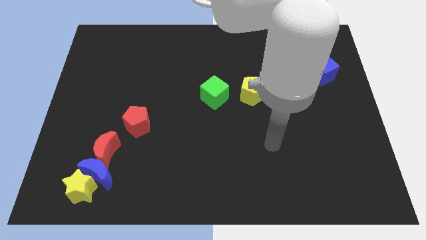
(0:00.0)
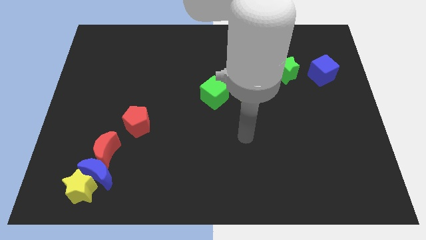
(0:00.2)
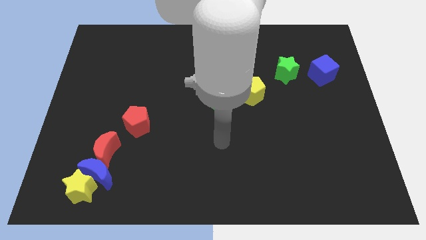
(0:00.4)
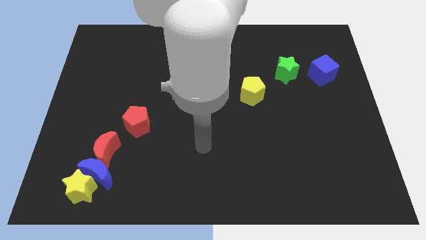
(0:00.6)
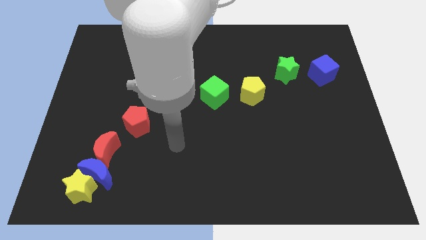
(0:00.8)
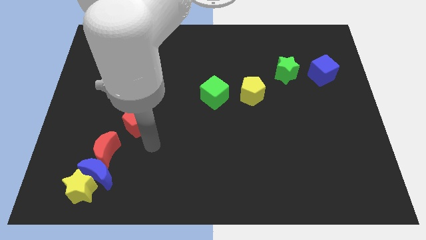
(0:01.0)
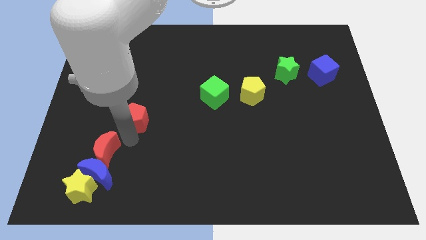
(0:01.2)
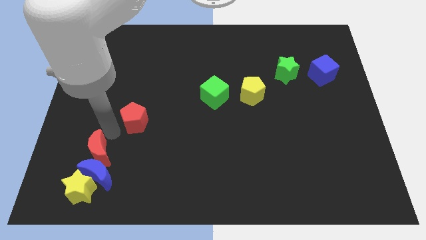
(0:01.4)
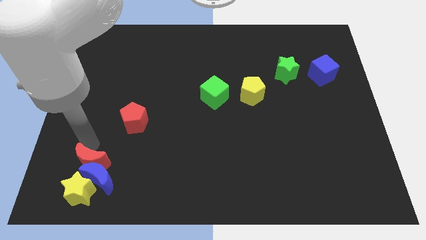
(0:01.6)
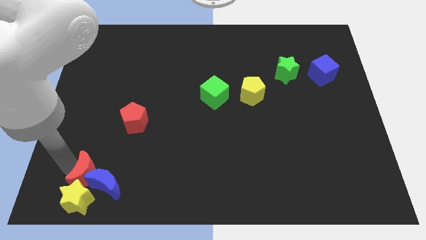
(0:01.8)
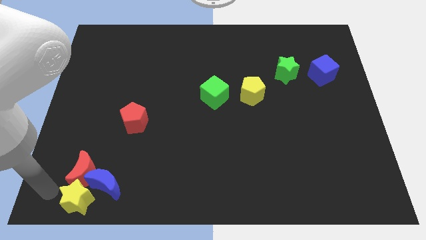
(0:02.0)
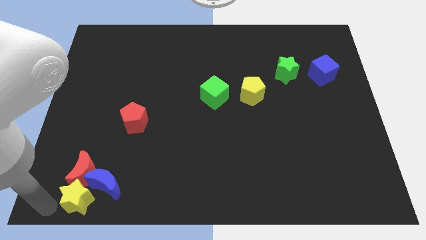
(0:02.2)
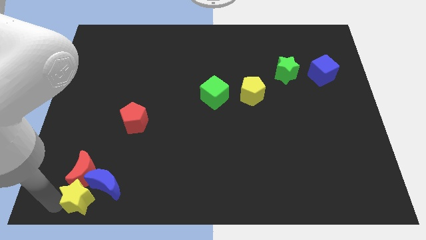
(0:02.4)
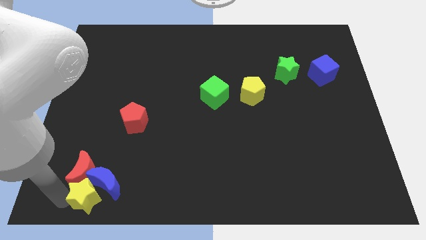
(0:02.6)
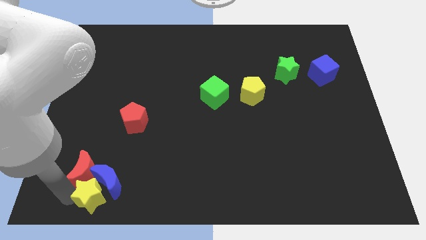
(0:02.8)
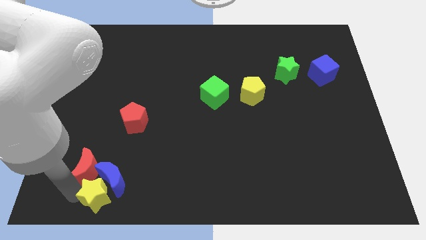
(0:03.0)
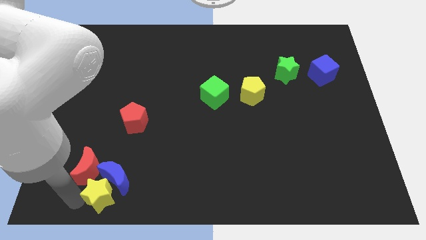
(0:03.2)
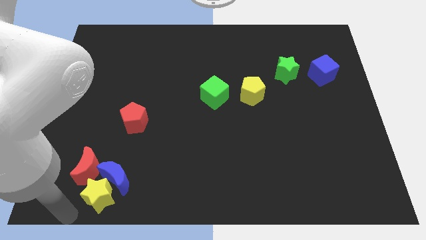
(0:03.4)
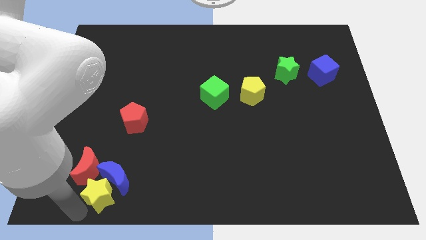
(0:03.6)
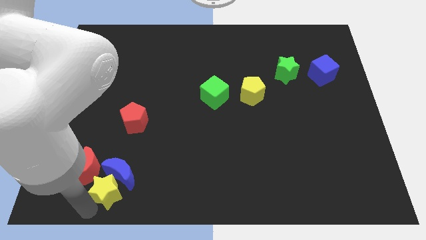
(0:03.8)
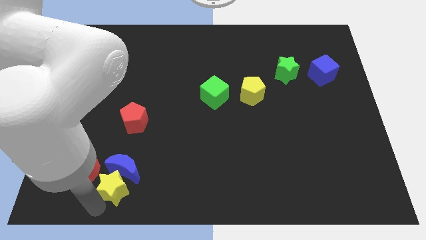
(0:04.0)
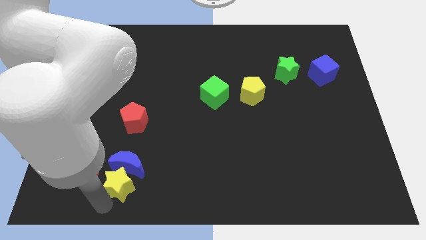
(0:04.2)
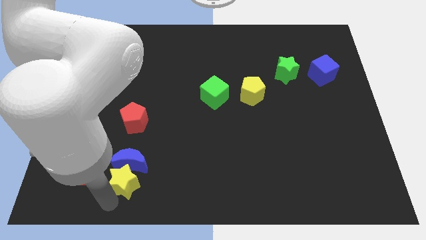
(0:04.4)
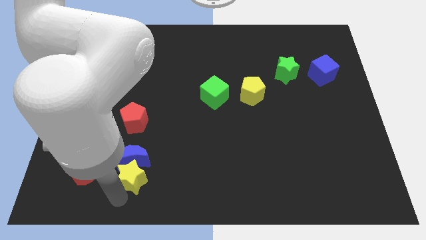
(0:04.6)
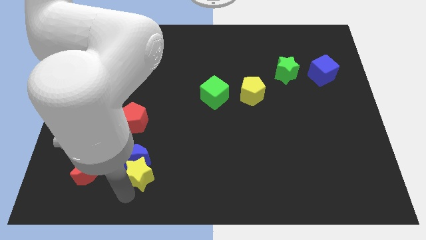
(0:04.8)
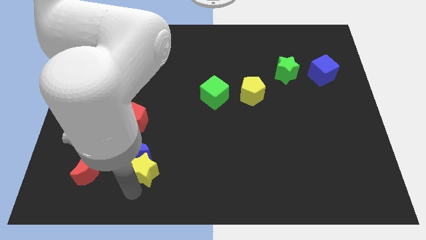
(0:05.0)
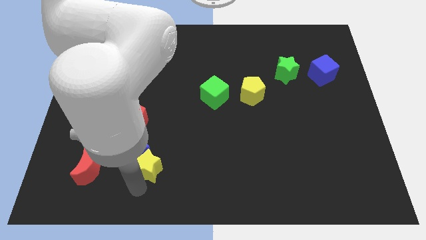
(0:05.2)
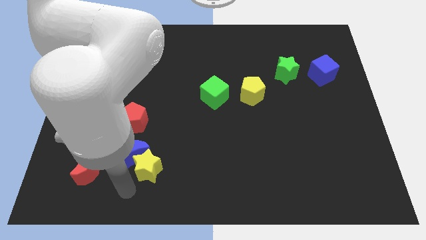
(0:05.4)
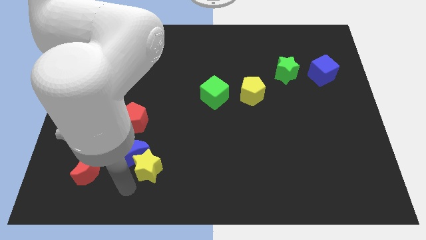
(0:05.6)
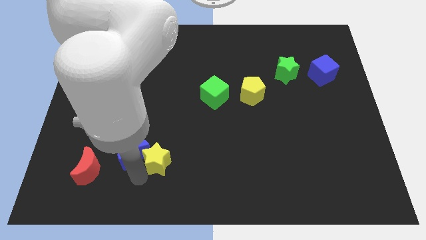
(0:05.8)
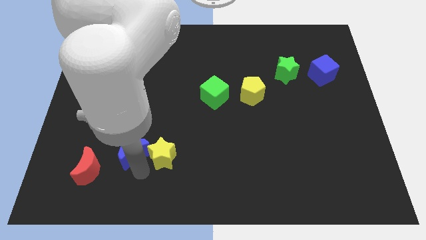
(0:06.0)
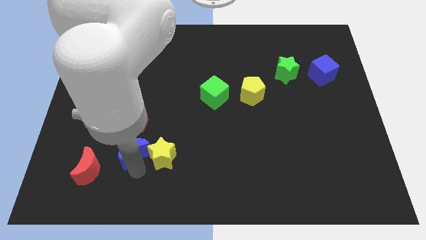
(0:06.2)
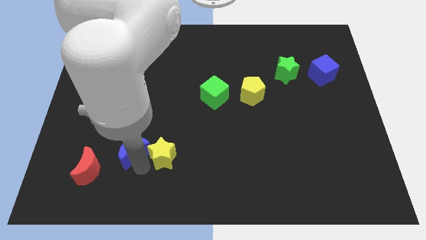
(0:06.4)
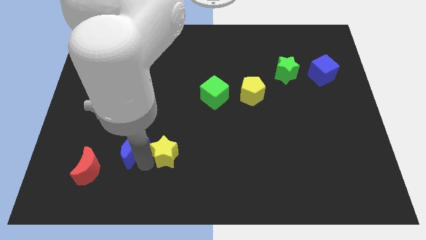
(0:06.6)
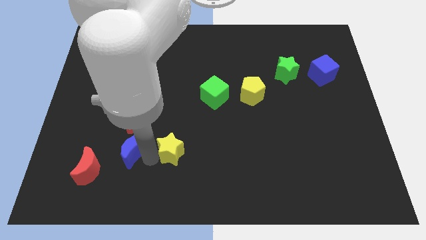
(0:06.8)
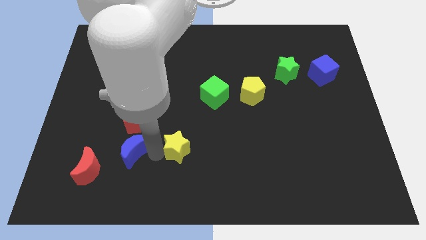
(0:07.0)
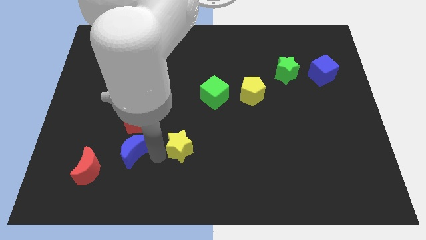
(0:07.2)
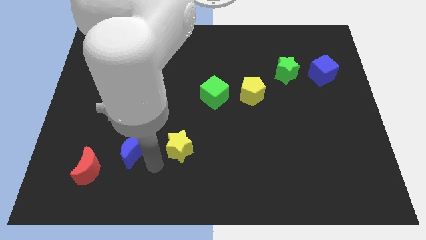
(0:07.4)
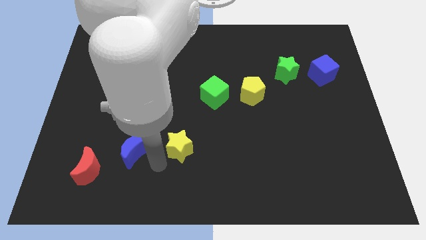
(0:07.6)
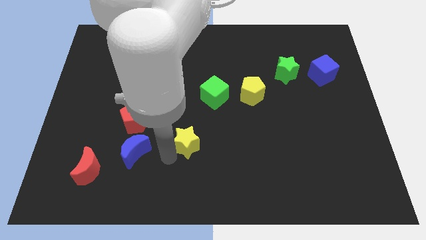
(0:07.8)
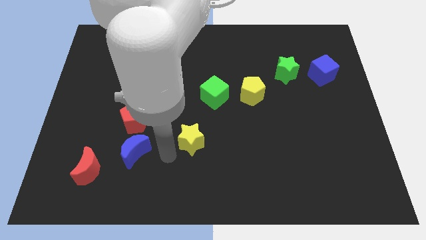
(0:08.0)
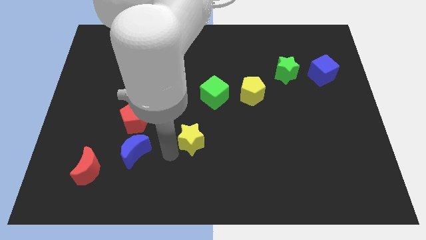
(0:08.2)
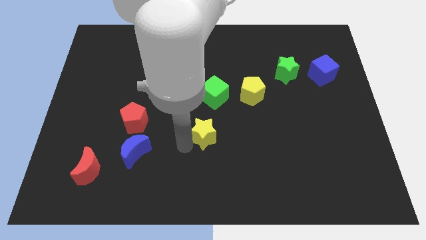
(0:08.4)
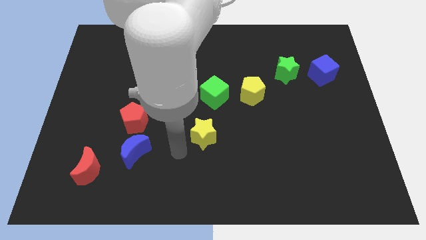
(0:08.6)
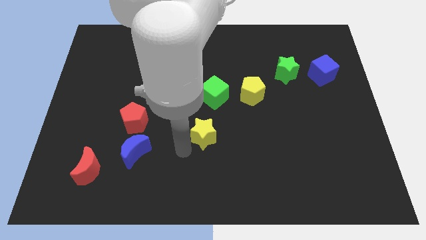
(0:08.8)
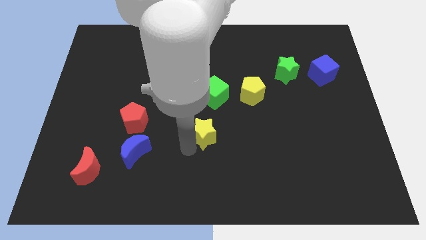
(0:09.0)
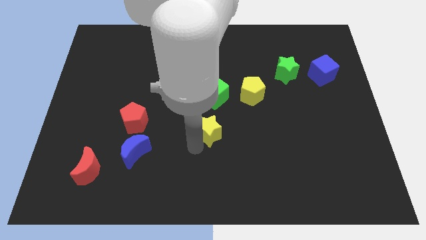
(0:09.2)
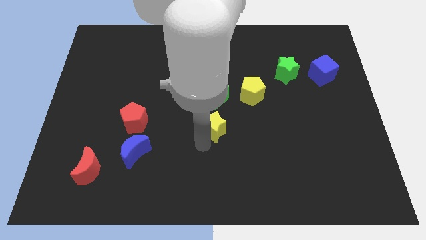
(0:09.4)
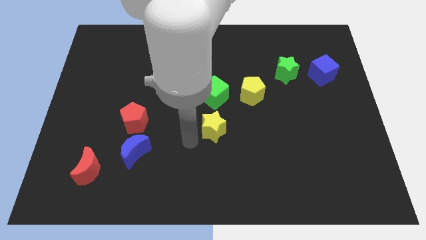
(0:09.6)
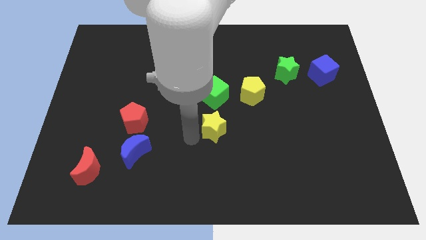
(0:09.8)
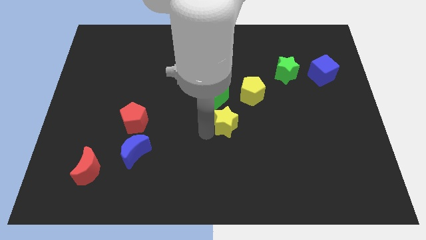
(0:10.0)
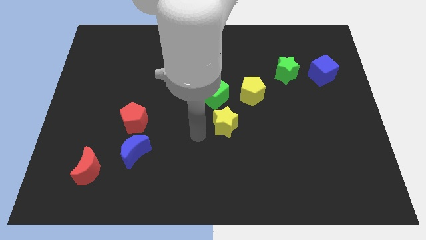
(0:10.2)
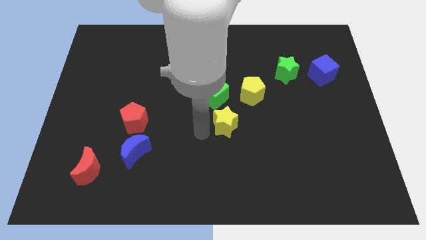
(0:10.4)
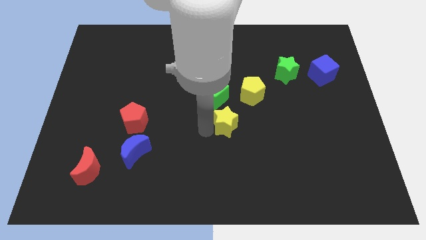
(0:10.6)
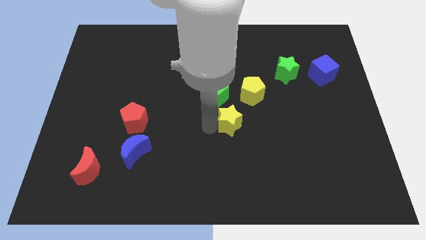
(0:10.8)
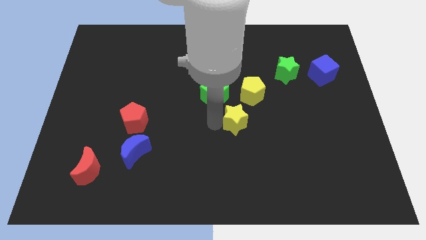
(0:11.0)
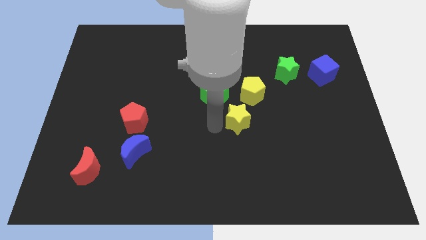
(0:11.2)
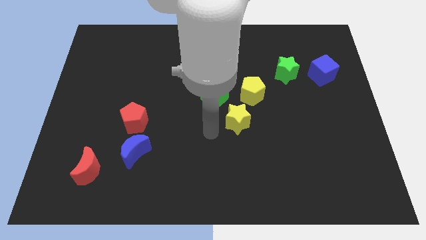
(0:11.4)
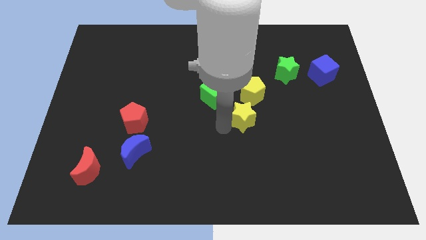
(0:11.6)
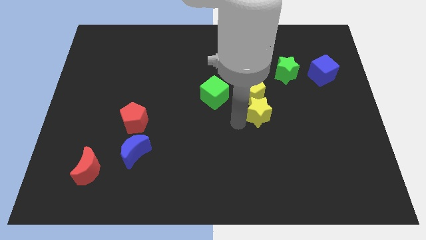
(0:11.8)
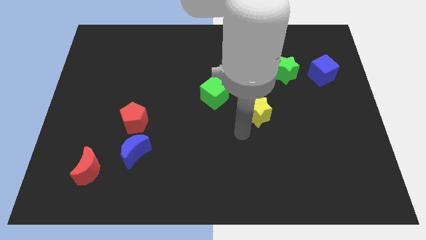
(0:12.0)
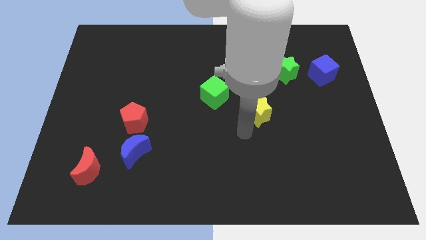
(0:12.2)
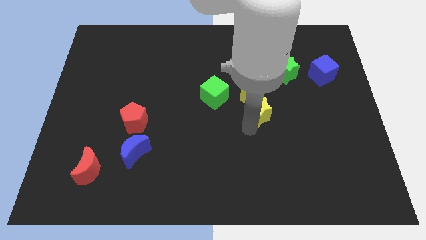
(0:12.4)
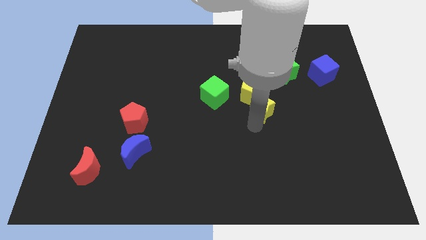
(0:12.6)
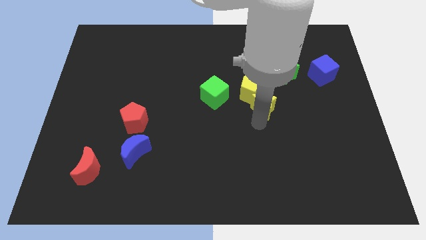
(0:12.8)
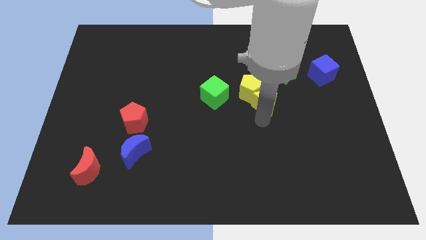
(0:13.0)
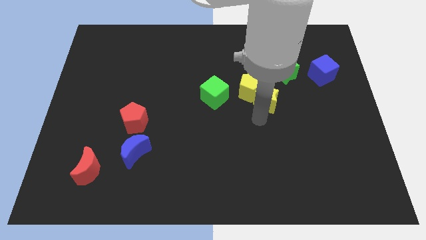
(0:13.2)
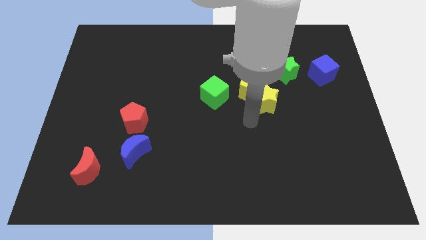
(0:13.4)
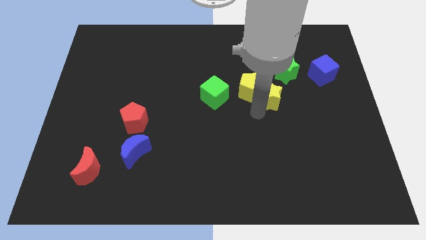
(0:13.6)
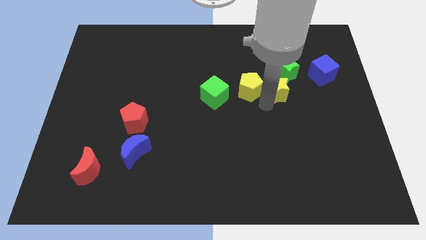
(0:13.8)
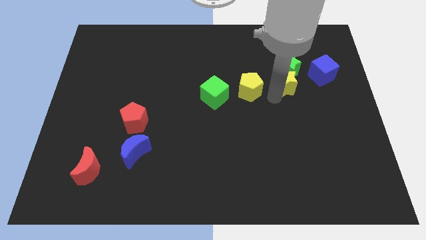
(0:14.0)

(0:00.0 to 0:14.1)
put the yellow star left of the blue cube
